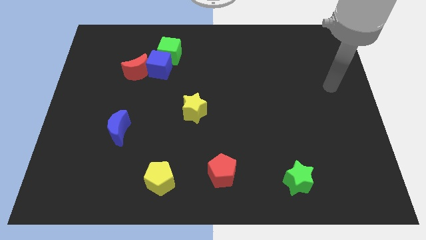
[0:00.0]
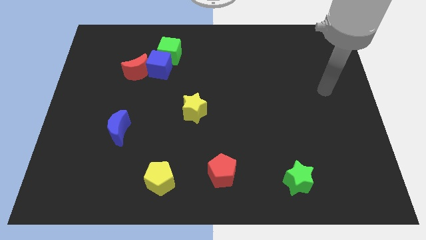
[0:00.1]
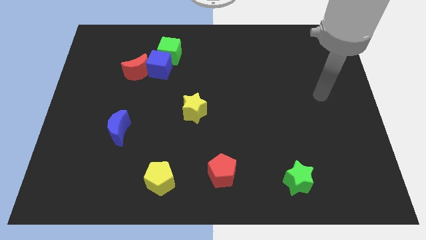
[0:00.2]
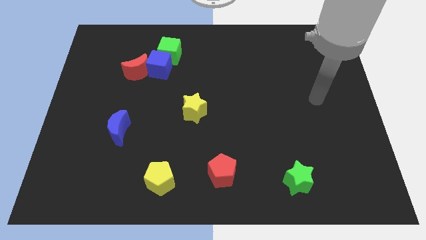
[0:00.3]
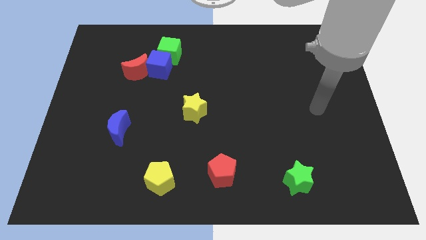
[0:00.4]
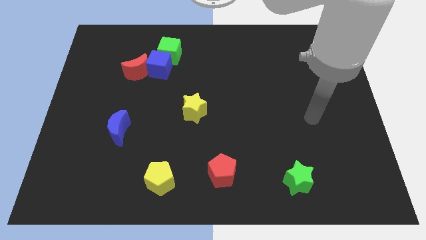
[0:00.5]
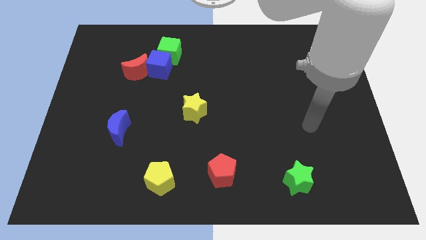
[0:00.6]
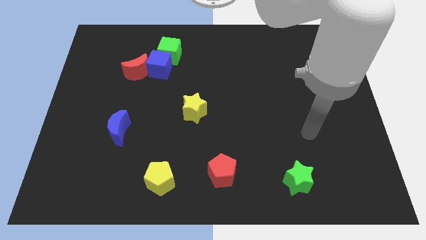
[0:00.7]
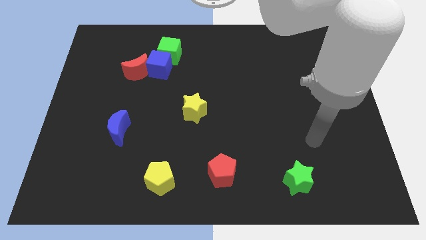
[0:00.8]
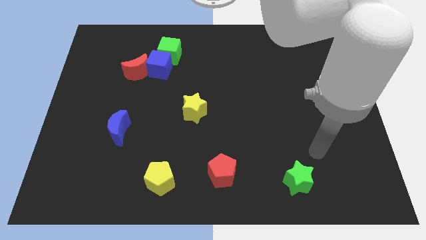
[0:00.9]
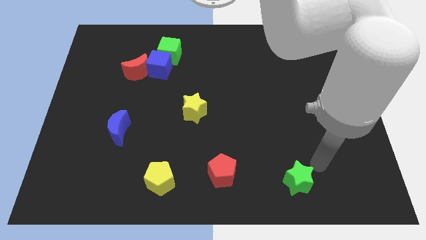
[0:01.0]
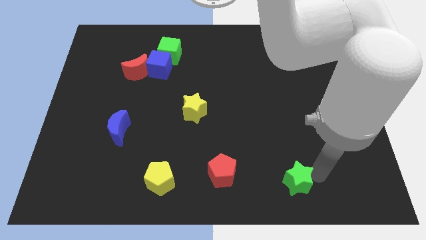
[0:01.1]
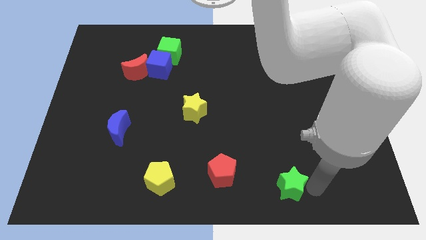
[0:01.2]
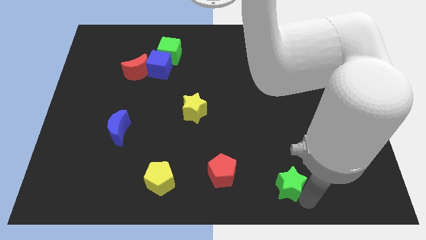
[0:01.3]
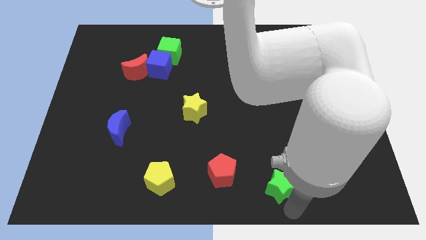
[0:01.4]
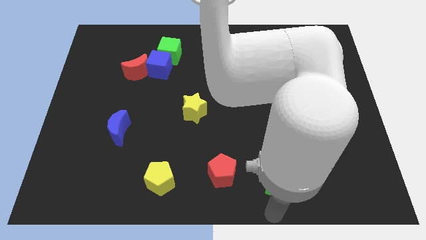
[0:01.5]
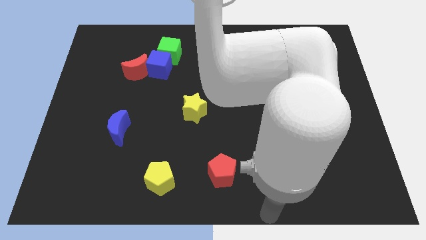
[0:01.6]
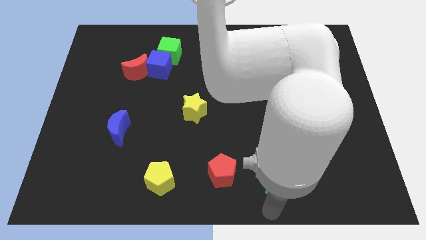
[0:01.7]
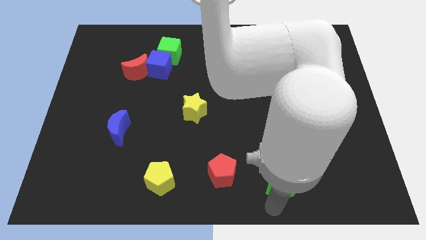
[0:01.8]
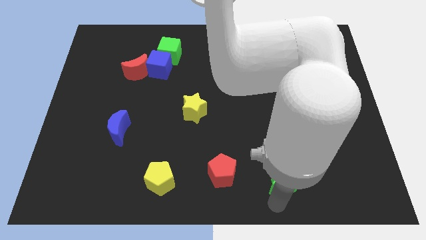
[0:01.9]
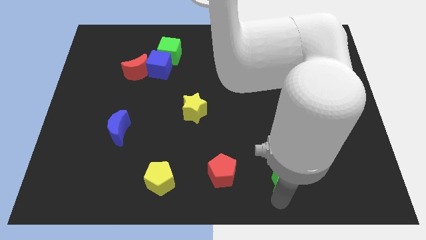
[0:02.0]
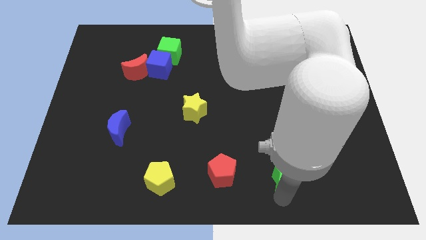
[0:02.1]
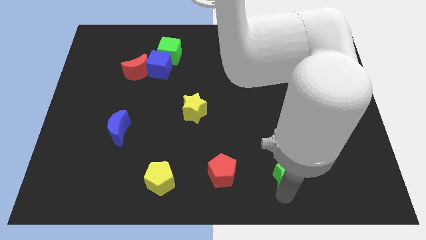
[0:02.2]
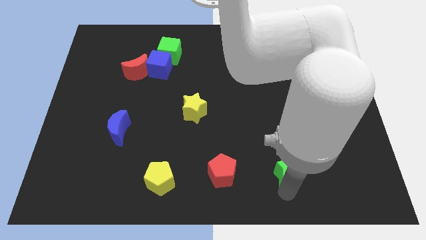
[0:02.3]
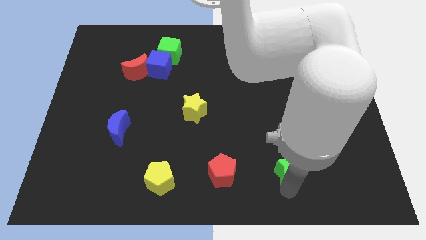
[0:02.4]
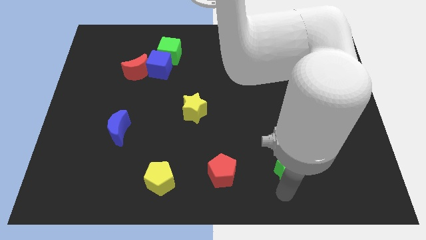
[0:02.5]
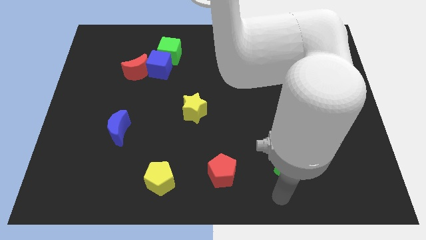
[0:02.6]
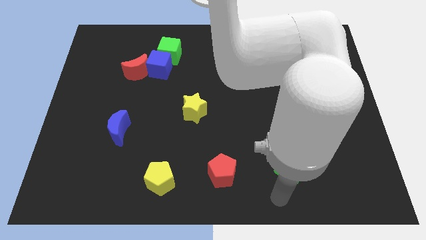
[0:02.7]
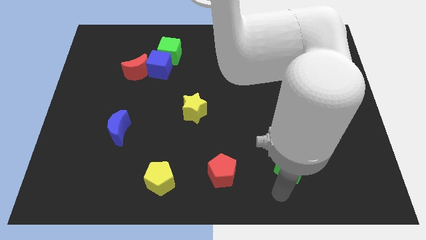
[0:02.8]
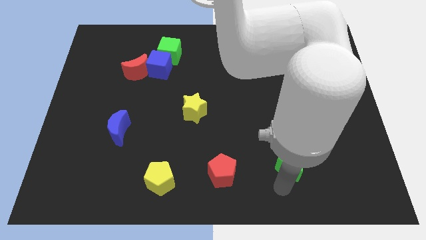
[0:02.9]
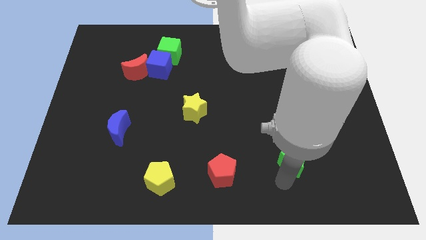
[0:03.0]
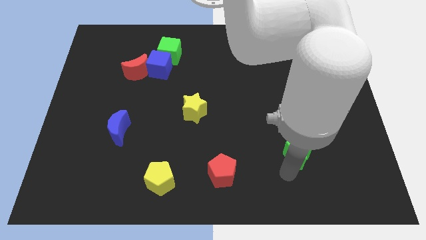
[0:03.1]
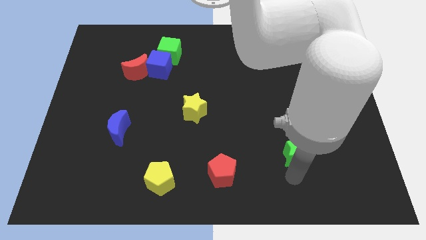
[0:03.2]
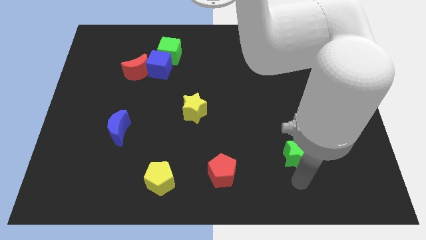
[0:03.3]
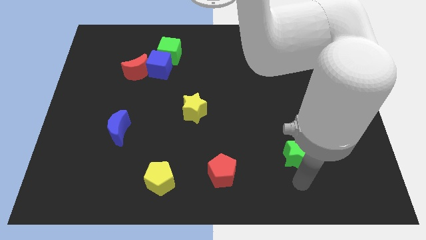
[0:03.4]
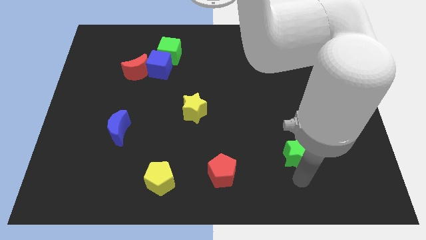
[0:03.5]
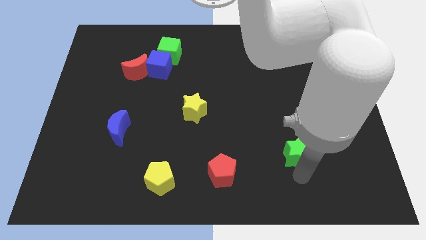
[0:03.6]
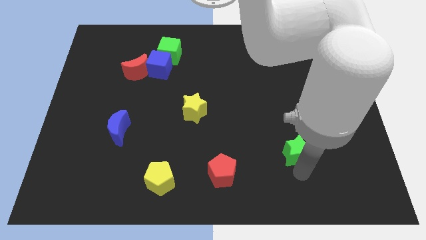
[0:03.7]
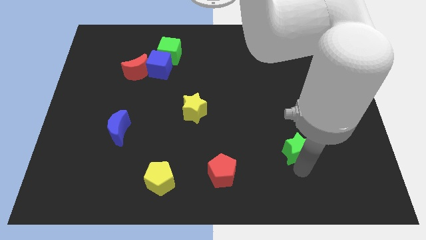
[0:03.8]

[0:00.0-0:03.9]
push the green star a little bit up

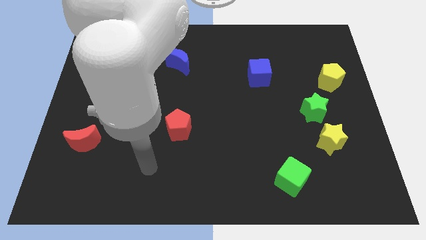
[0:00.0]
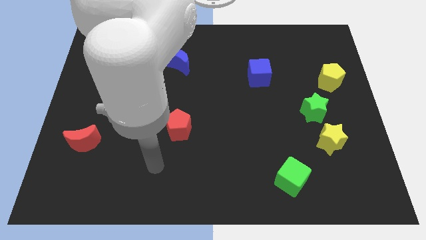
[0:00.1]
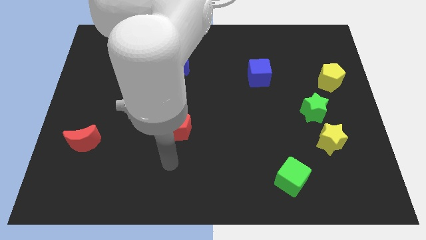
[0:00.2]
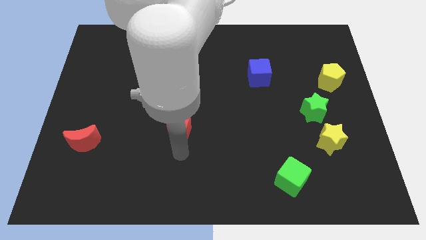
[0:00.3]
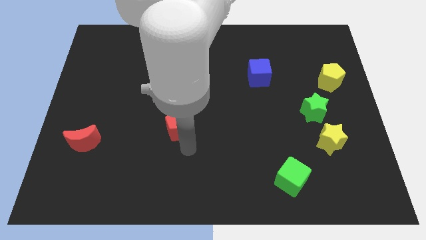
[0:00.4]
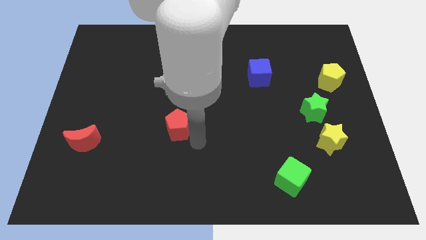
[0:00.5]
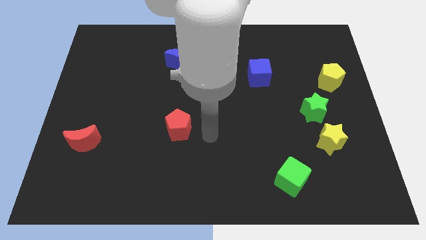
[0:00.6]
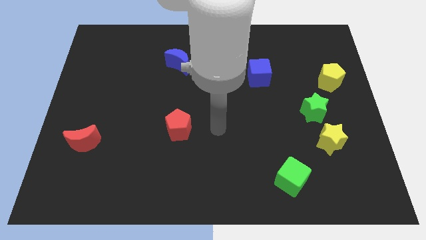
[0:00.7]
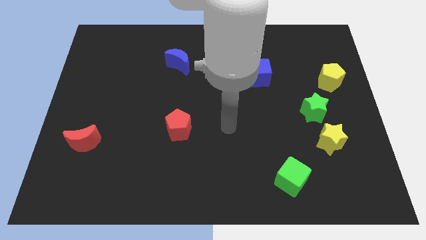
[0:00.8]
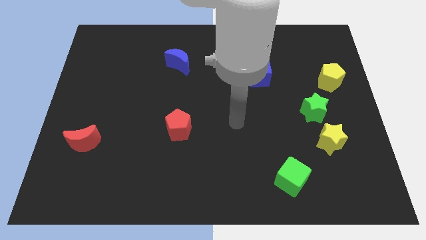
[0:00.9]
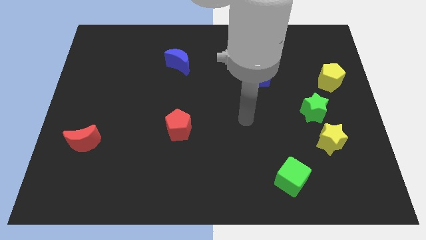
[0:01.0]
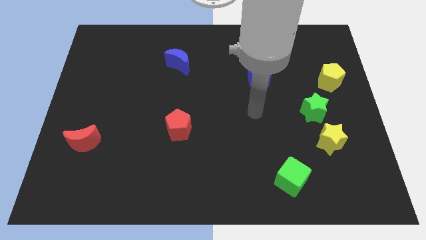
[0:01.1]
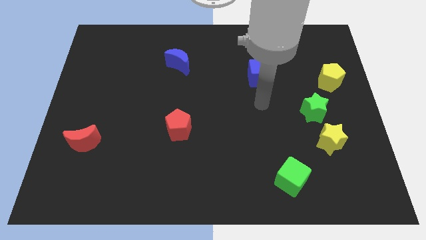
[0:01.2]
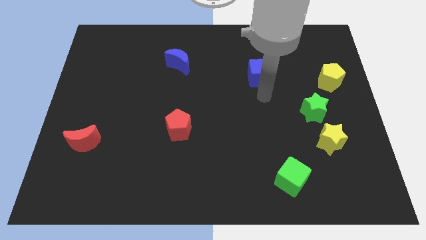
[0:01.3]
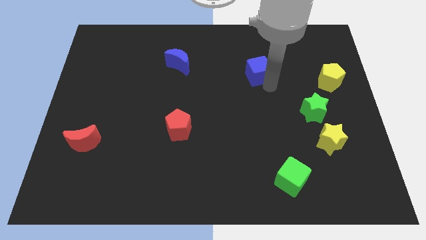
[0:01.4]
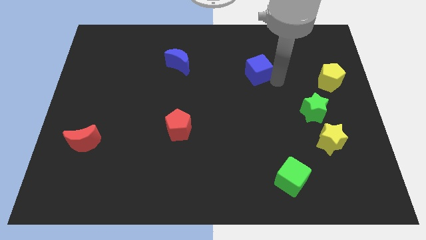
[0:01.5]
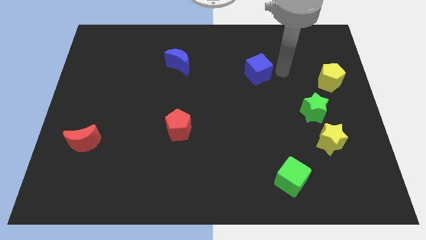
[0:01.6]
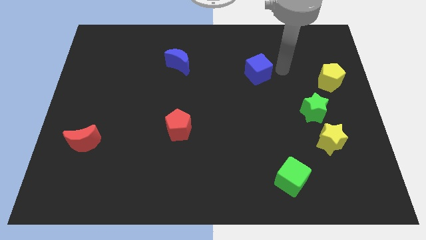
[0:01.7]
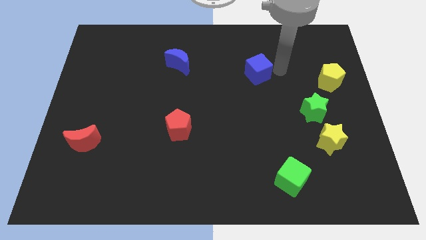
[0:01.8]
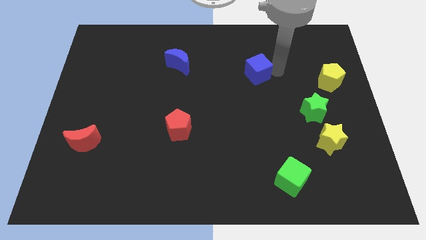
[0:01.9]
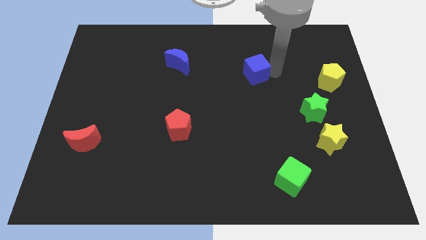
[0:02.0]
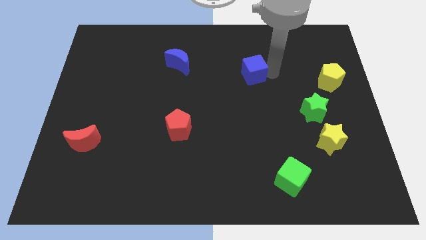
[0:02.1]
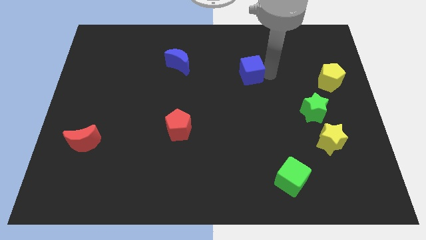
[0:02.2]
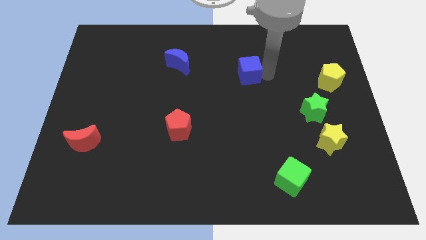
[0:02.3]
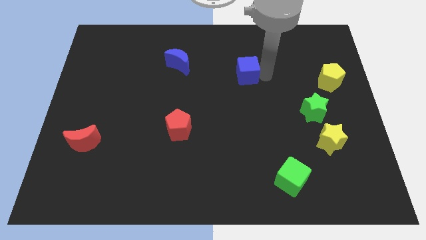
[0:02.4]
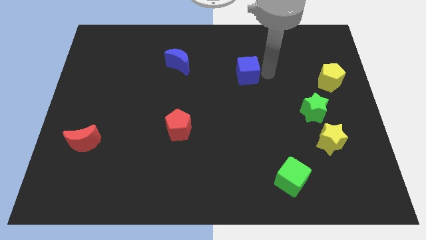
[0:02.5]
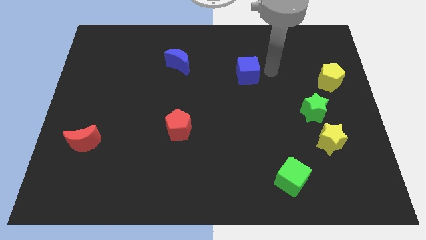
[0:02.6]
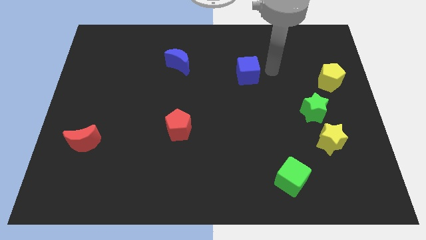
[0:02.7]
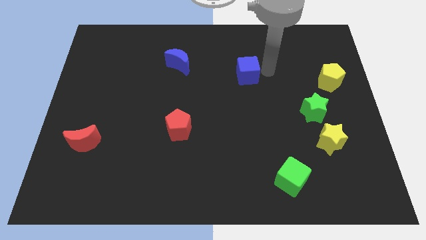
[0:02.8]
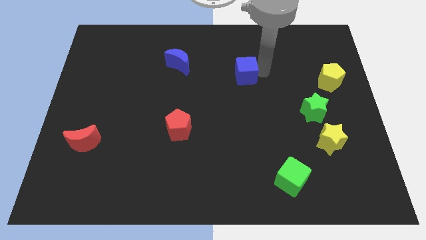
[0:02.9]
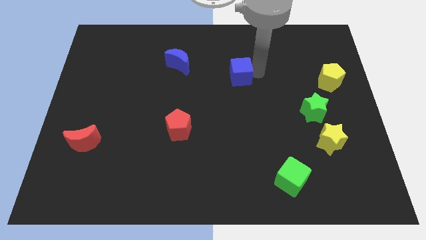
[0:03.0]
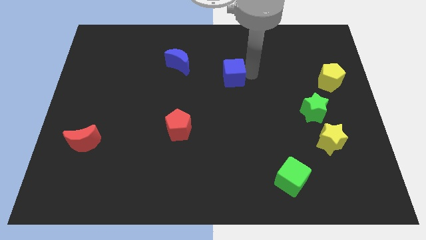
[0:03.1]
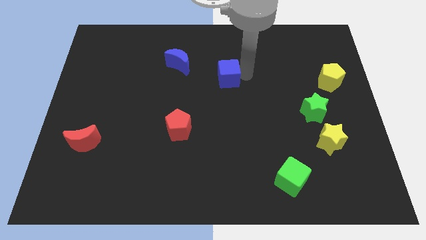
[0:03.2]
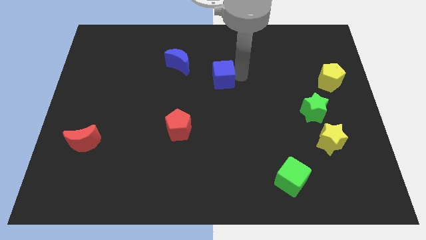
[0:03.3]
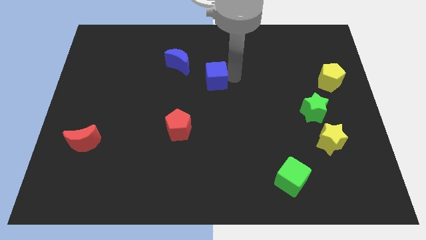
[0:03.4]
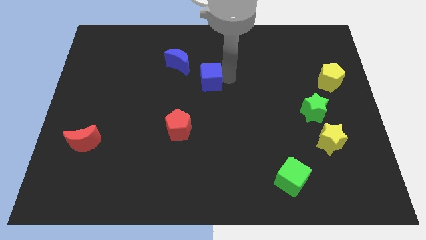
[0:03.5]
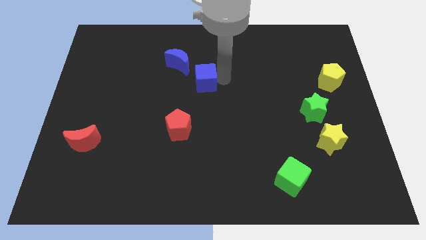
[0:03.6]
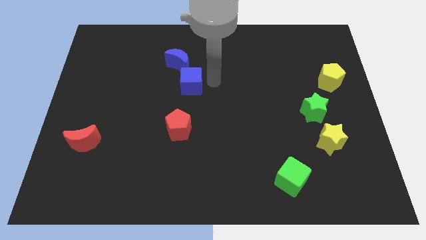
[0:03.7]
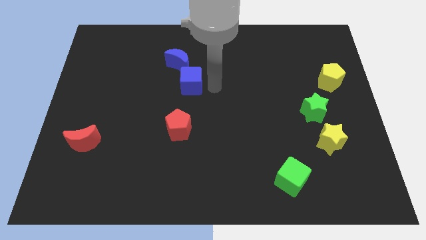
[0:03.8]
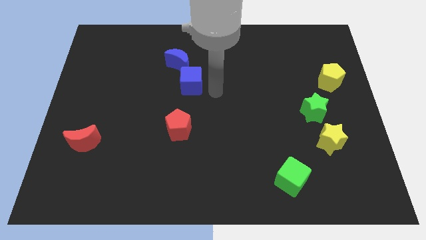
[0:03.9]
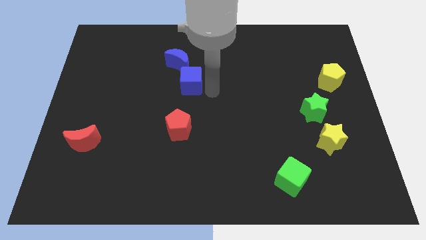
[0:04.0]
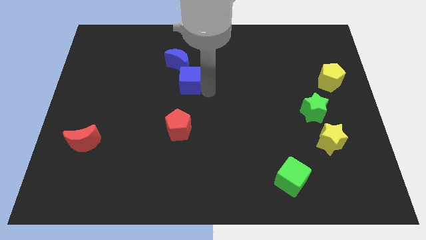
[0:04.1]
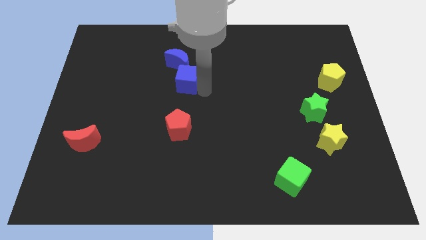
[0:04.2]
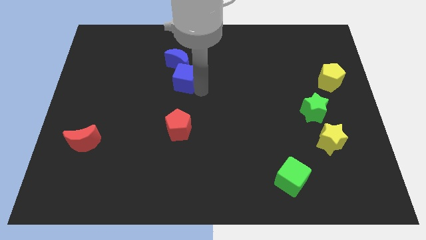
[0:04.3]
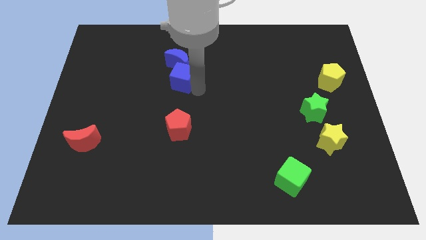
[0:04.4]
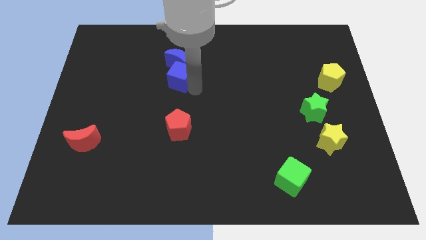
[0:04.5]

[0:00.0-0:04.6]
push the blue cube left
